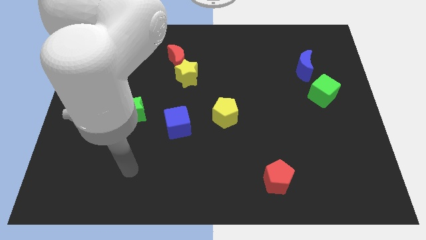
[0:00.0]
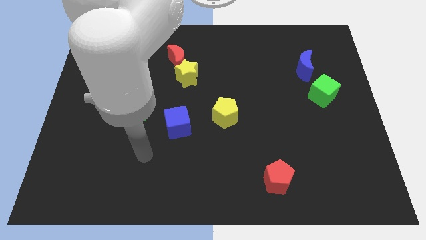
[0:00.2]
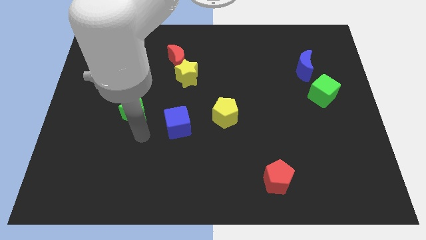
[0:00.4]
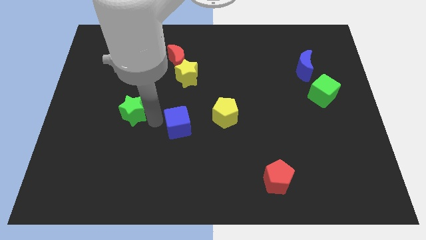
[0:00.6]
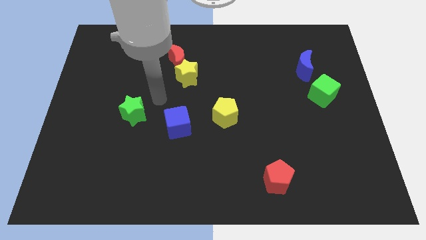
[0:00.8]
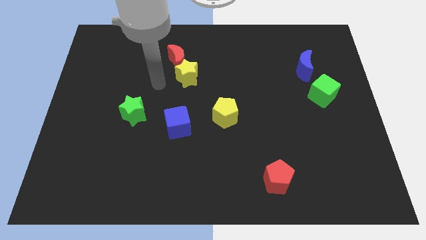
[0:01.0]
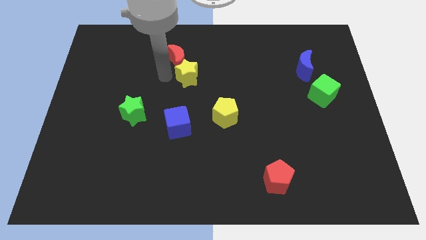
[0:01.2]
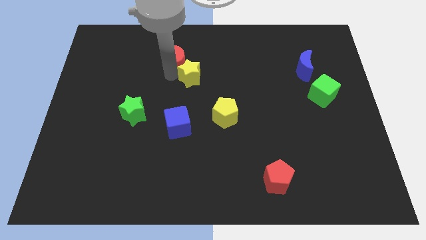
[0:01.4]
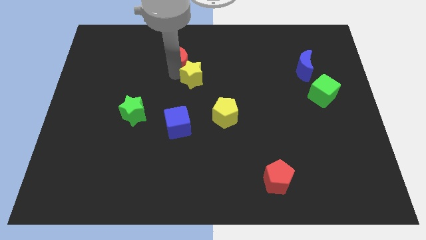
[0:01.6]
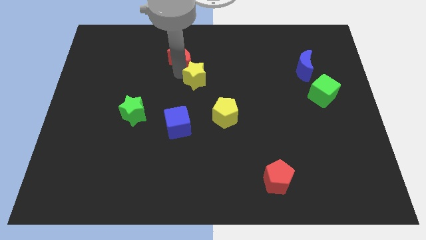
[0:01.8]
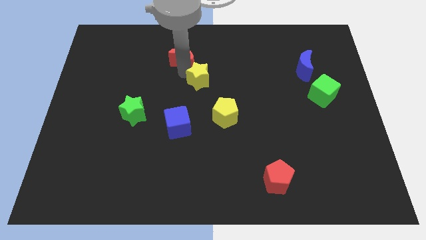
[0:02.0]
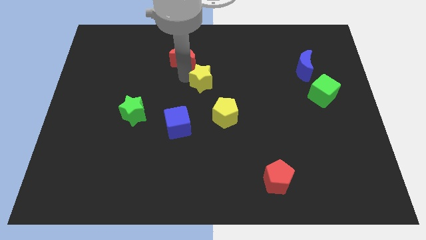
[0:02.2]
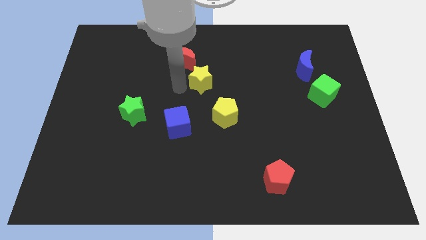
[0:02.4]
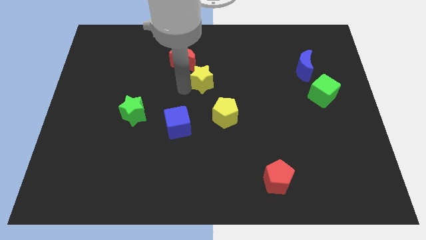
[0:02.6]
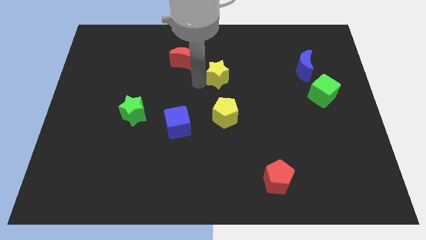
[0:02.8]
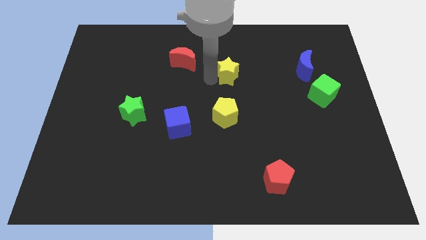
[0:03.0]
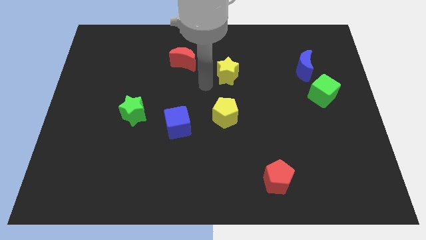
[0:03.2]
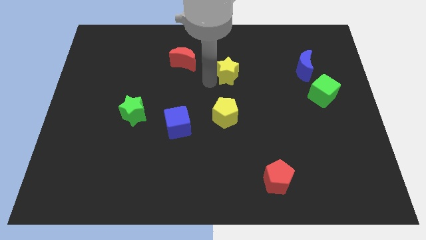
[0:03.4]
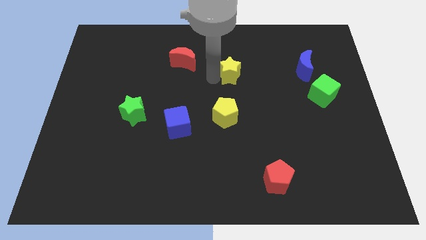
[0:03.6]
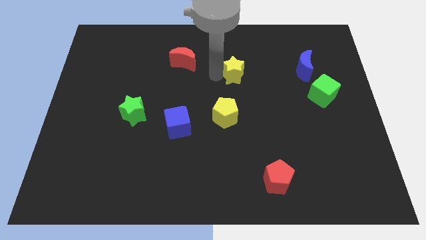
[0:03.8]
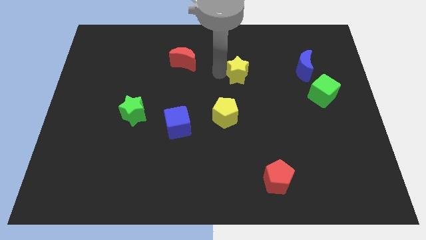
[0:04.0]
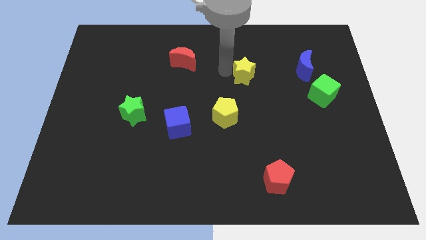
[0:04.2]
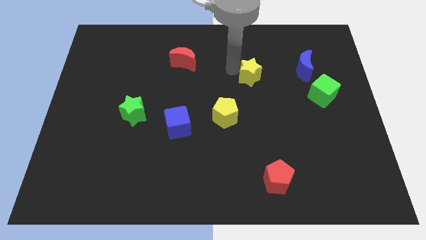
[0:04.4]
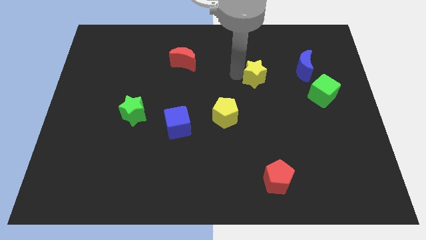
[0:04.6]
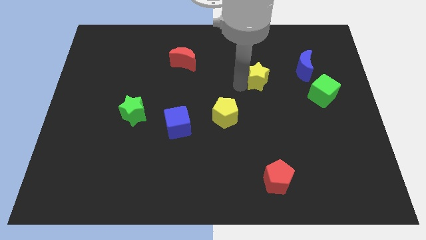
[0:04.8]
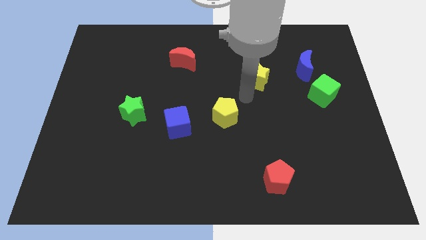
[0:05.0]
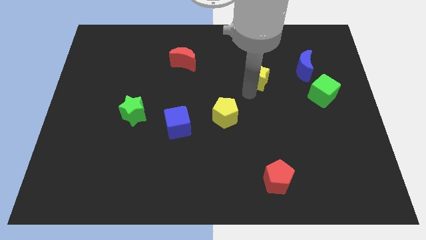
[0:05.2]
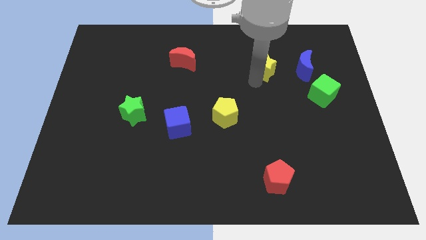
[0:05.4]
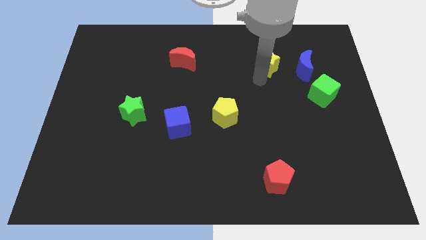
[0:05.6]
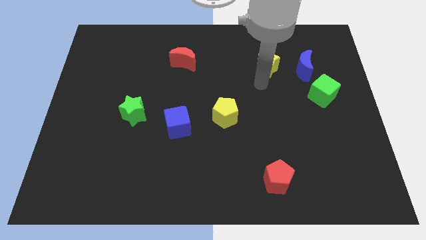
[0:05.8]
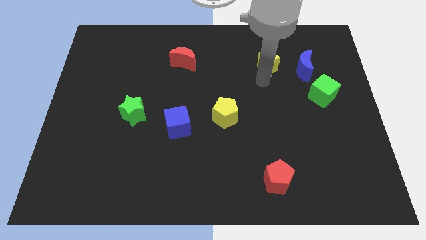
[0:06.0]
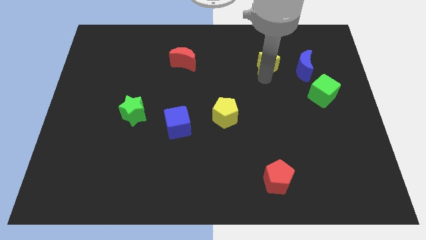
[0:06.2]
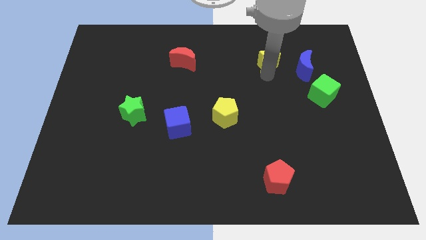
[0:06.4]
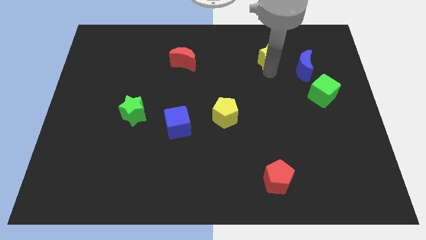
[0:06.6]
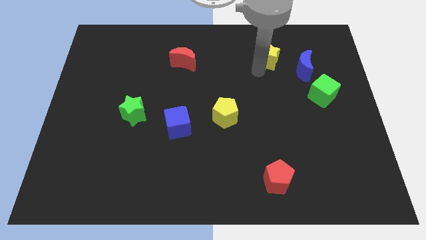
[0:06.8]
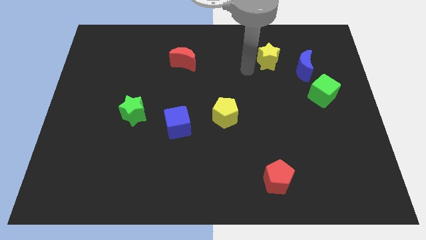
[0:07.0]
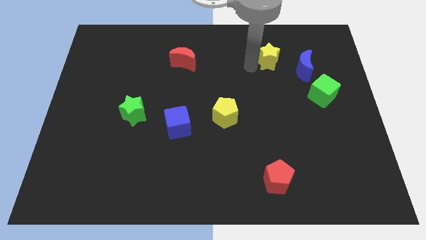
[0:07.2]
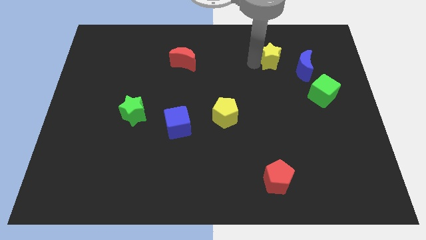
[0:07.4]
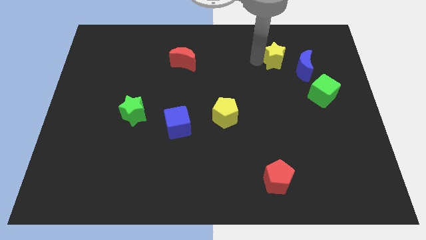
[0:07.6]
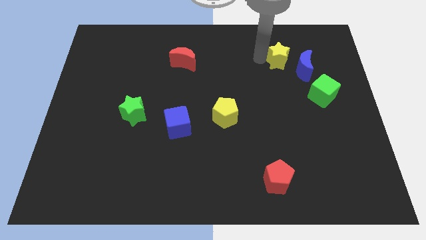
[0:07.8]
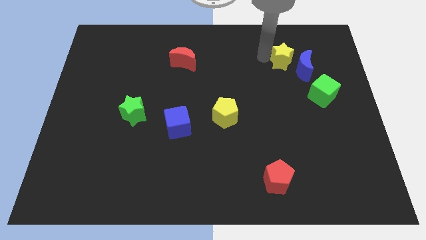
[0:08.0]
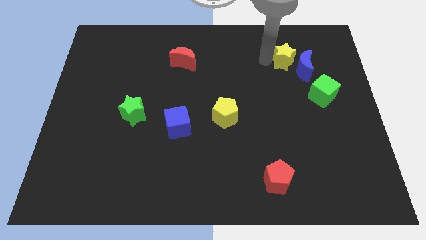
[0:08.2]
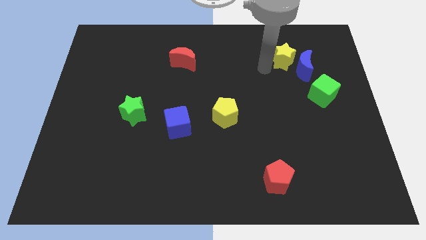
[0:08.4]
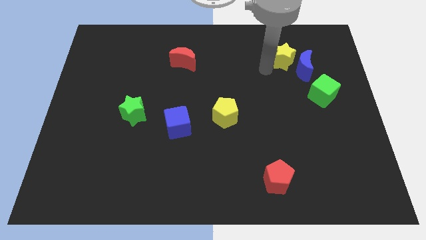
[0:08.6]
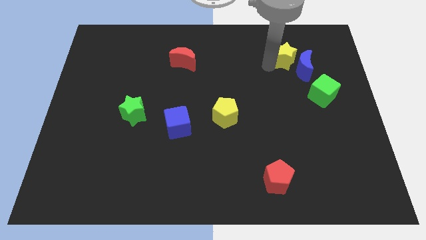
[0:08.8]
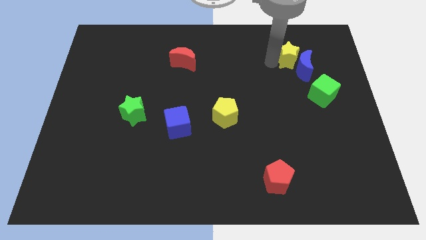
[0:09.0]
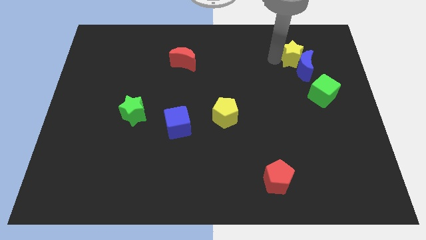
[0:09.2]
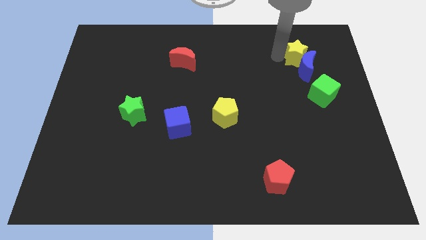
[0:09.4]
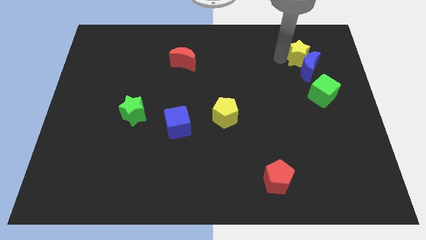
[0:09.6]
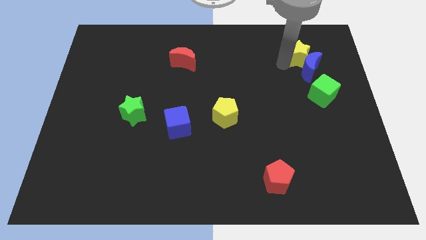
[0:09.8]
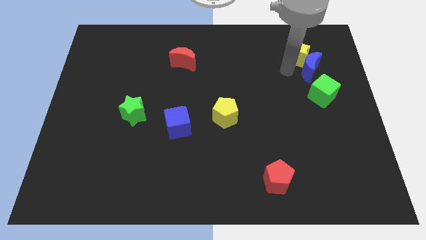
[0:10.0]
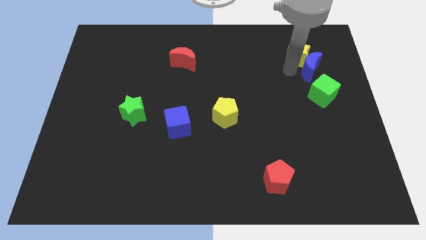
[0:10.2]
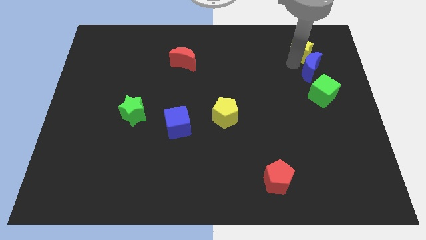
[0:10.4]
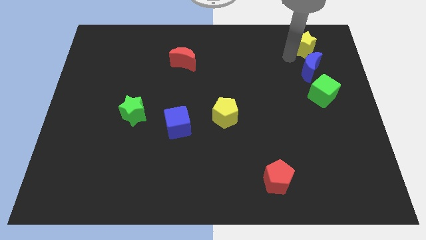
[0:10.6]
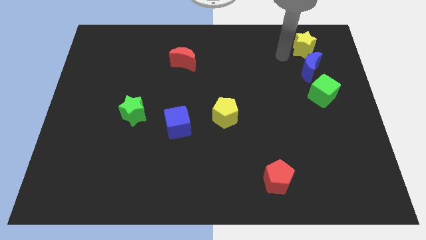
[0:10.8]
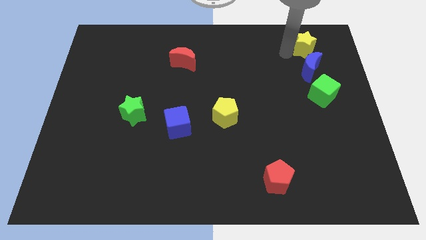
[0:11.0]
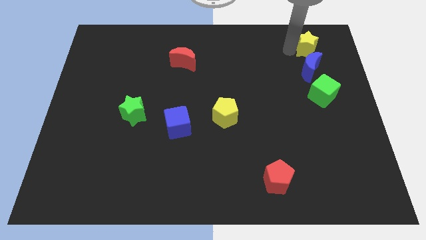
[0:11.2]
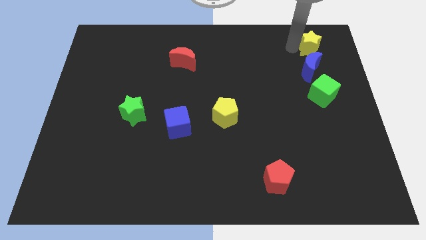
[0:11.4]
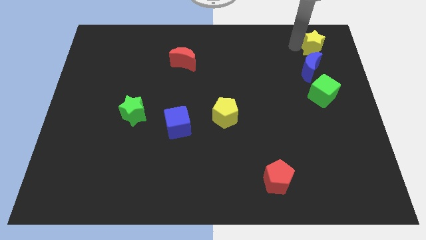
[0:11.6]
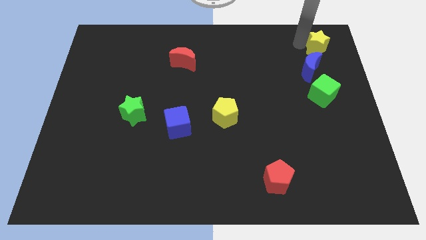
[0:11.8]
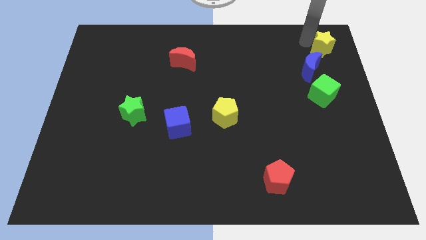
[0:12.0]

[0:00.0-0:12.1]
push the yellow star to the top right corner
